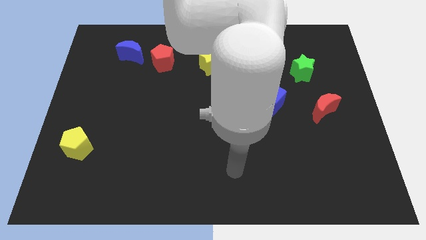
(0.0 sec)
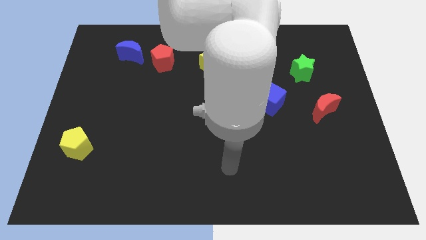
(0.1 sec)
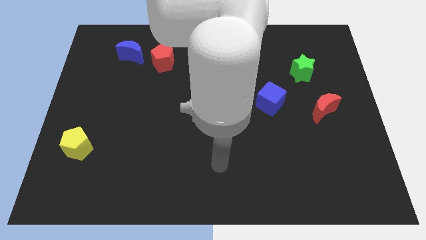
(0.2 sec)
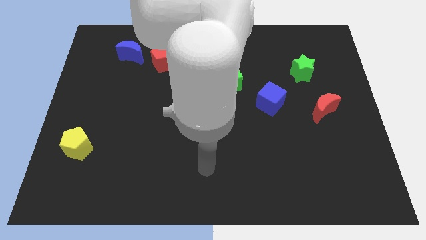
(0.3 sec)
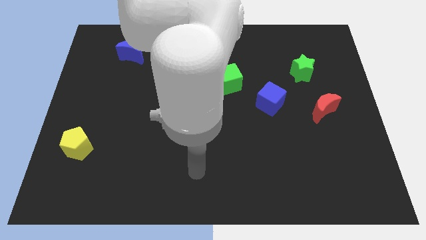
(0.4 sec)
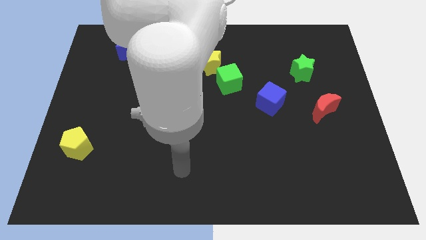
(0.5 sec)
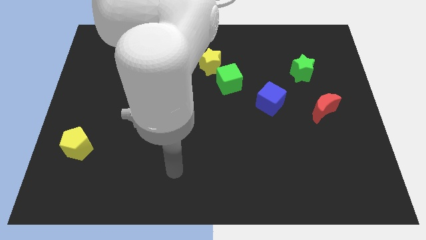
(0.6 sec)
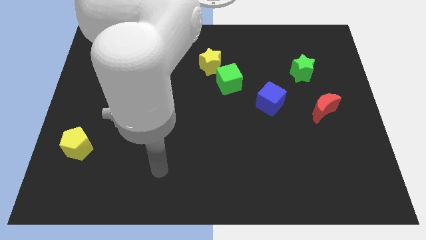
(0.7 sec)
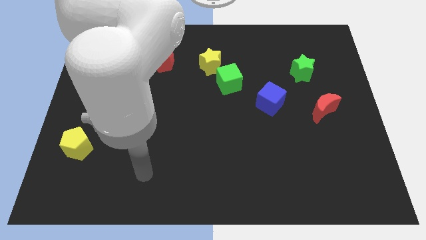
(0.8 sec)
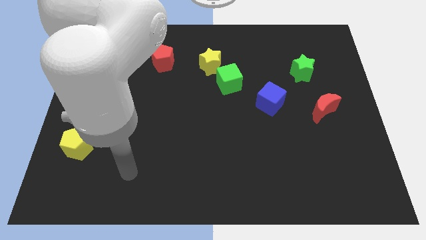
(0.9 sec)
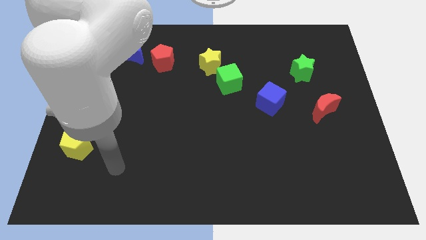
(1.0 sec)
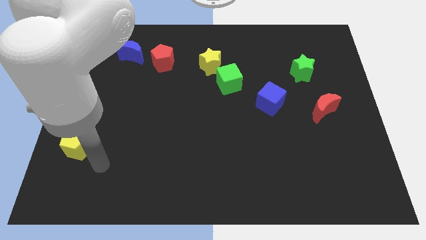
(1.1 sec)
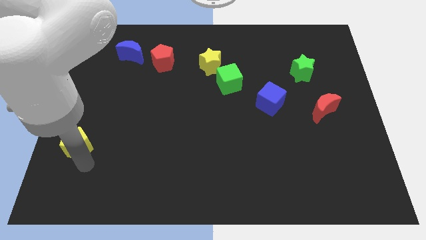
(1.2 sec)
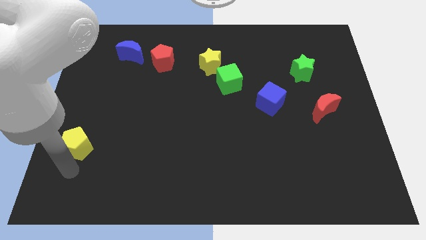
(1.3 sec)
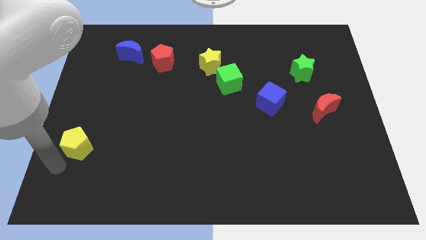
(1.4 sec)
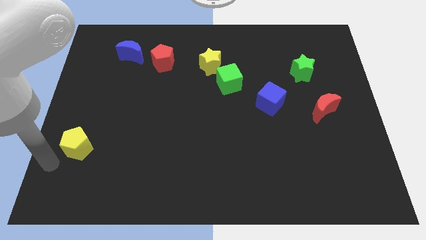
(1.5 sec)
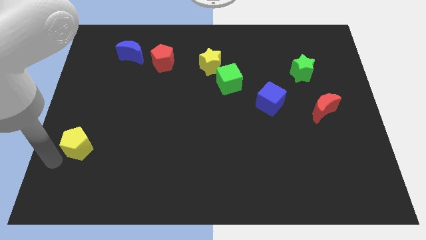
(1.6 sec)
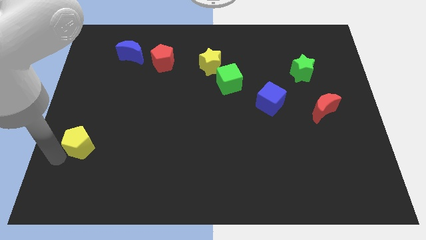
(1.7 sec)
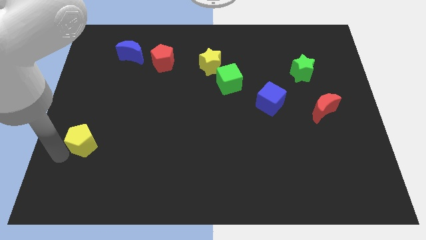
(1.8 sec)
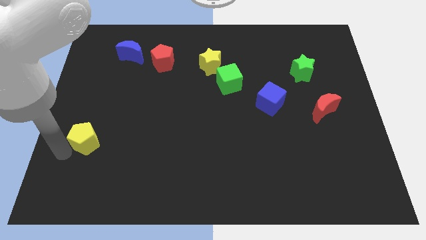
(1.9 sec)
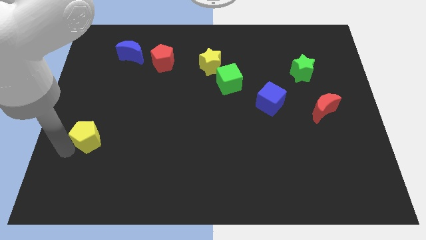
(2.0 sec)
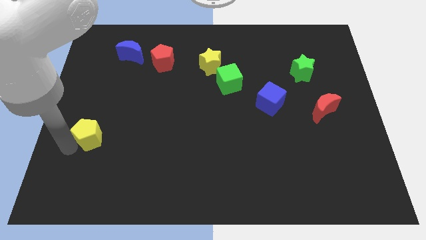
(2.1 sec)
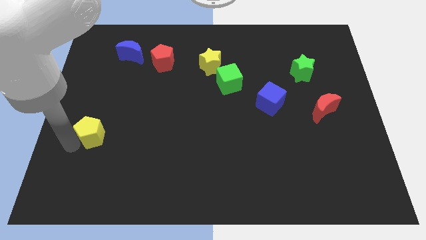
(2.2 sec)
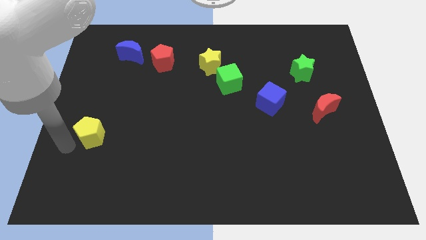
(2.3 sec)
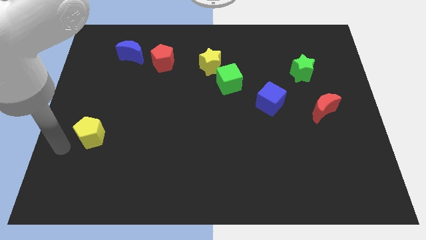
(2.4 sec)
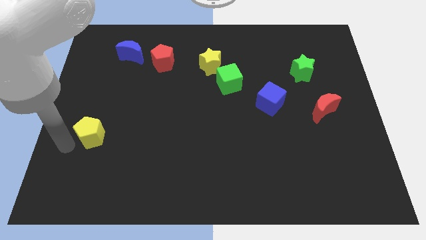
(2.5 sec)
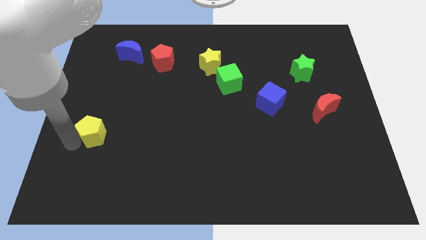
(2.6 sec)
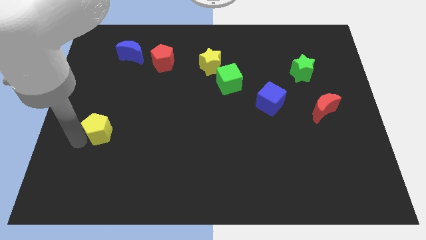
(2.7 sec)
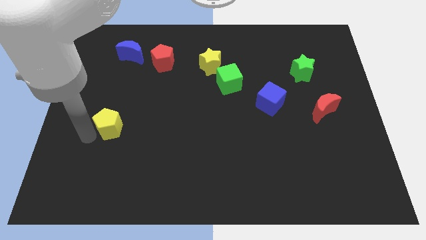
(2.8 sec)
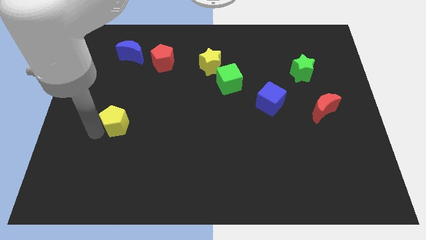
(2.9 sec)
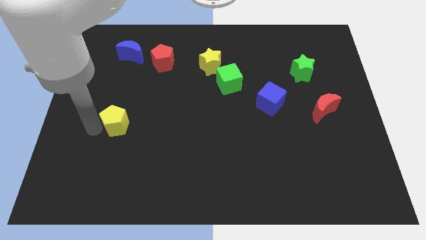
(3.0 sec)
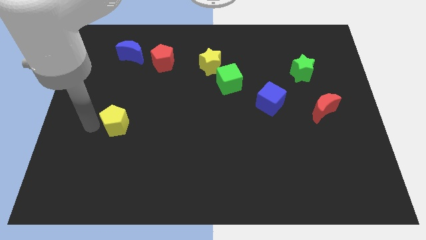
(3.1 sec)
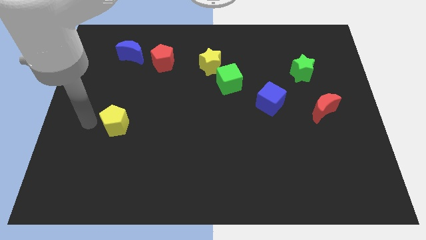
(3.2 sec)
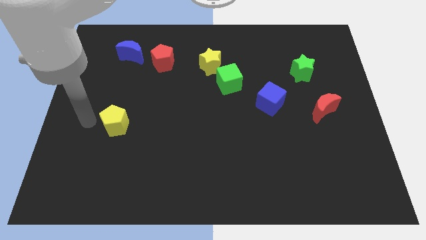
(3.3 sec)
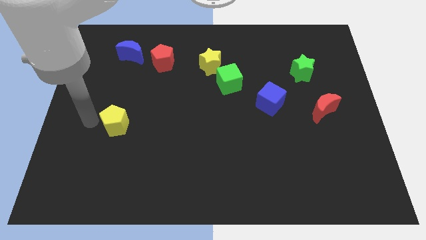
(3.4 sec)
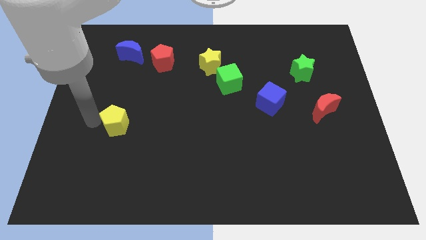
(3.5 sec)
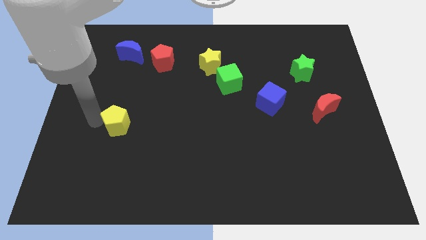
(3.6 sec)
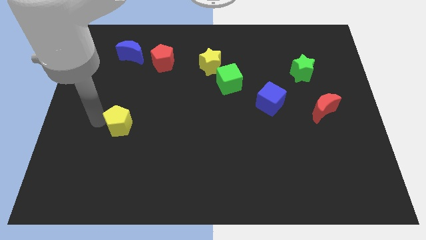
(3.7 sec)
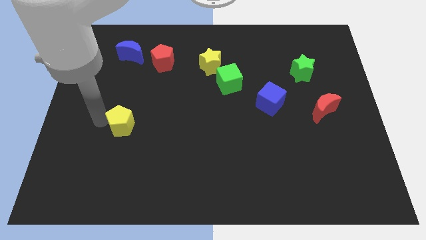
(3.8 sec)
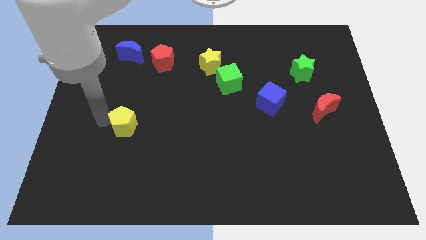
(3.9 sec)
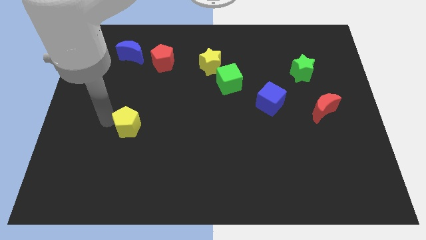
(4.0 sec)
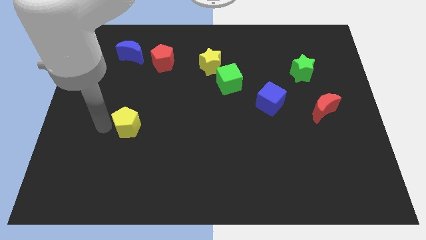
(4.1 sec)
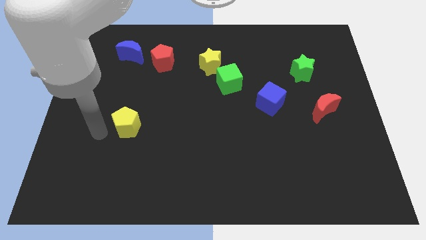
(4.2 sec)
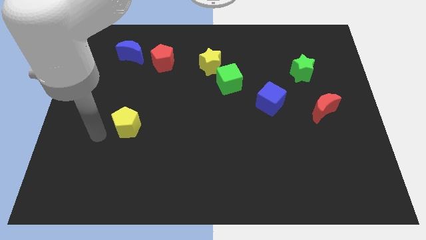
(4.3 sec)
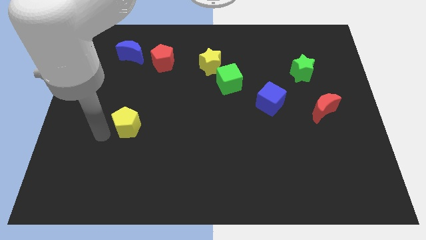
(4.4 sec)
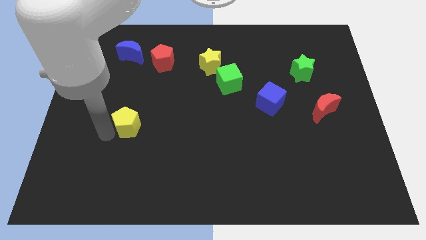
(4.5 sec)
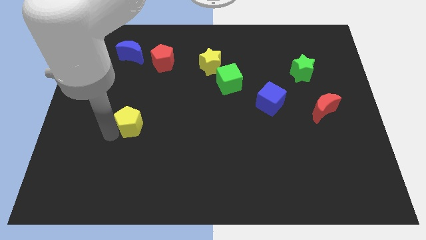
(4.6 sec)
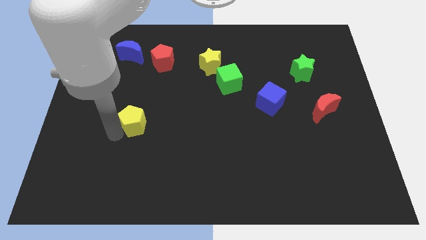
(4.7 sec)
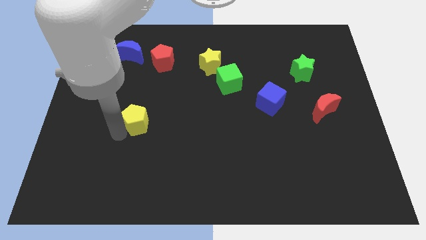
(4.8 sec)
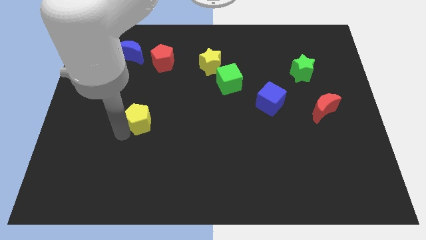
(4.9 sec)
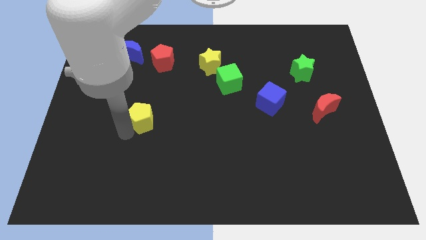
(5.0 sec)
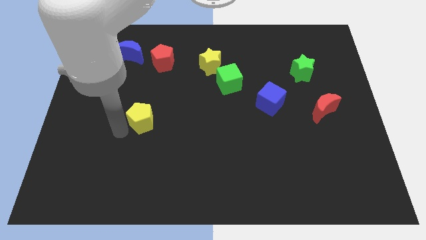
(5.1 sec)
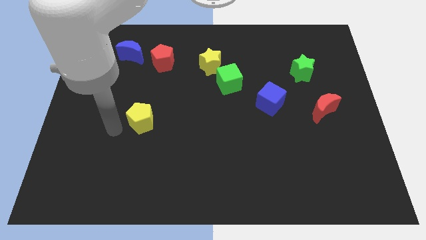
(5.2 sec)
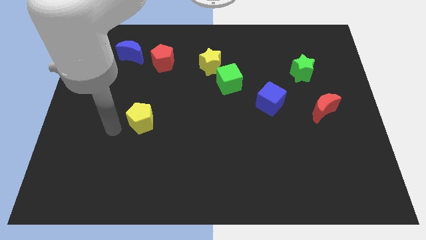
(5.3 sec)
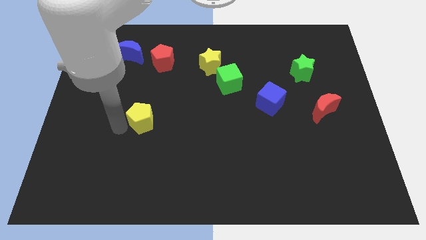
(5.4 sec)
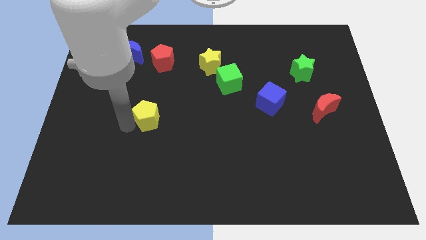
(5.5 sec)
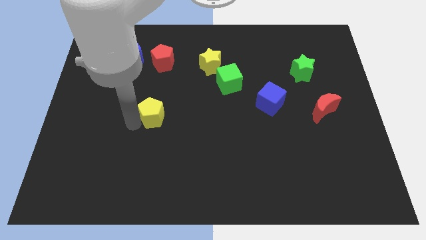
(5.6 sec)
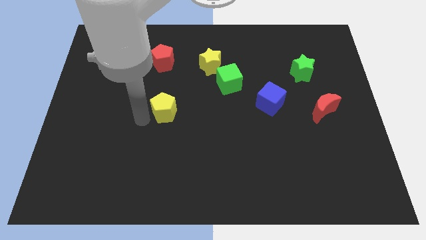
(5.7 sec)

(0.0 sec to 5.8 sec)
slide the yellow pentagon to the center

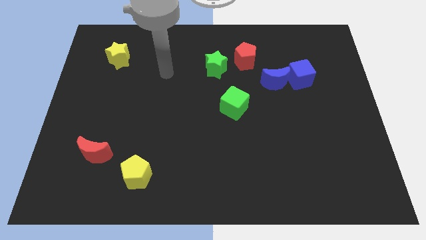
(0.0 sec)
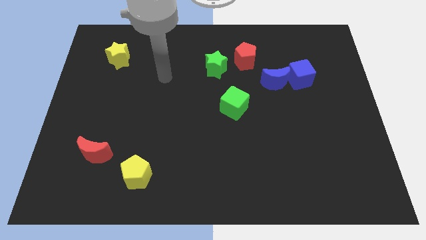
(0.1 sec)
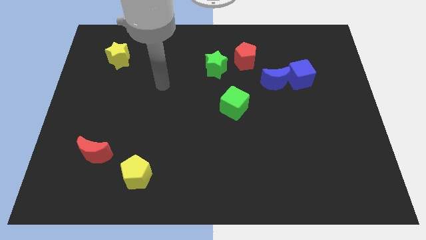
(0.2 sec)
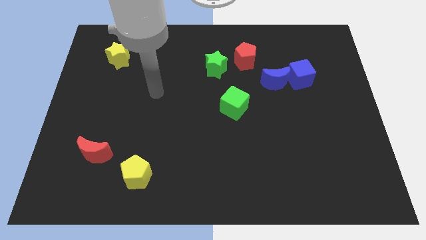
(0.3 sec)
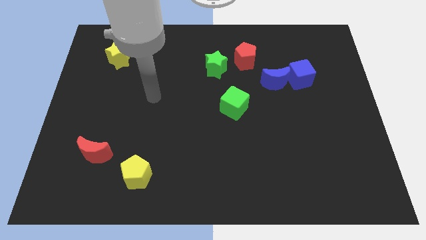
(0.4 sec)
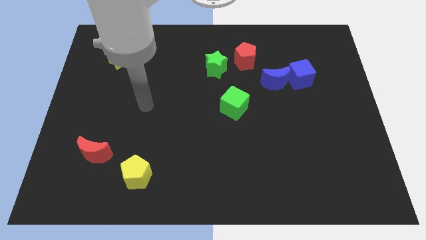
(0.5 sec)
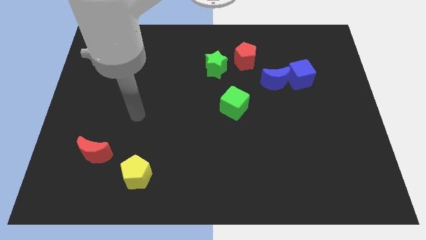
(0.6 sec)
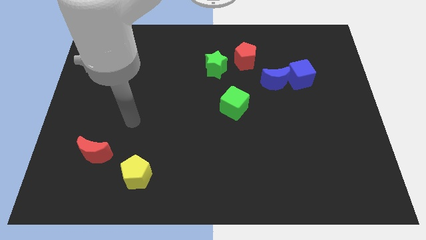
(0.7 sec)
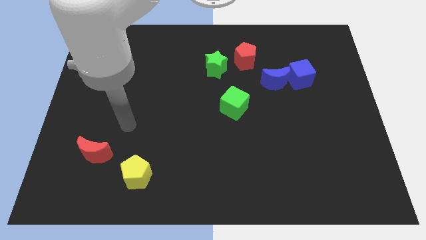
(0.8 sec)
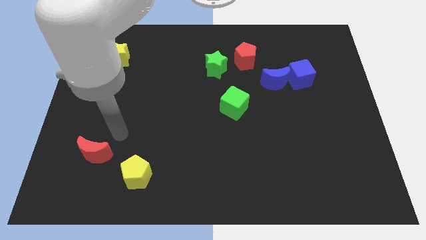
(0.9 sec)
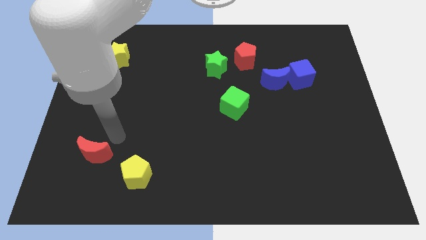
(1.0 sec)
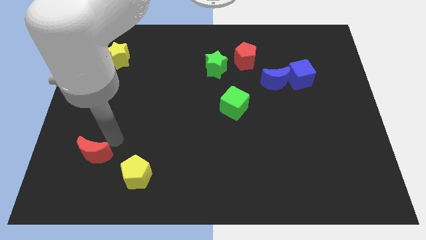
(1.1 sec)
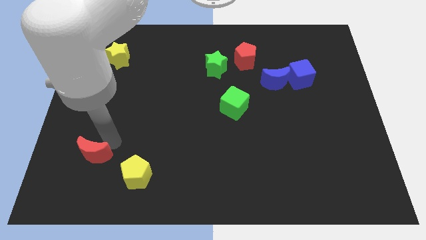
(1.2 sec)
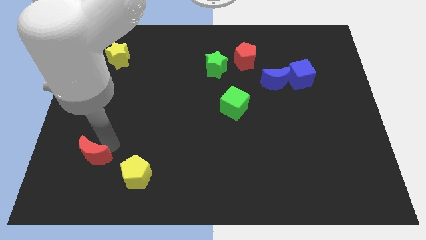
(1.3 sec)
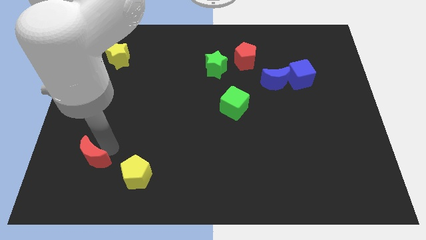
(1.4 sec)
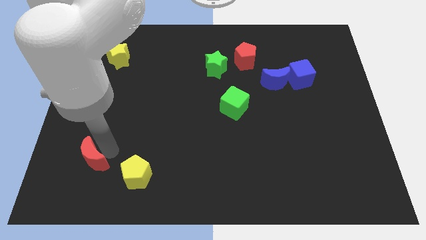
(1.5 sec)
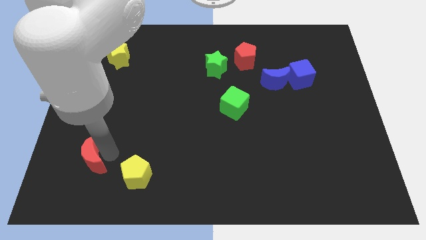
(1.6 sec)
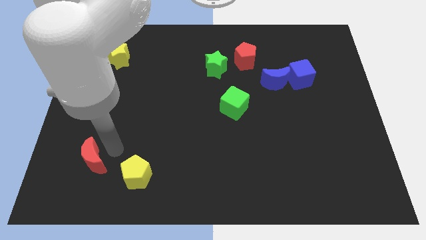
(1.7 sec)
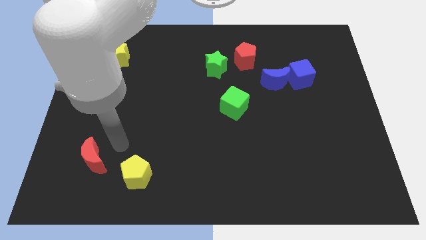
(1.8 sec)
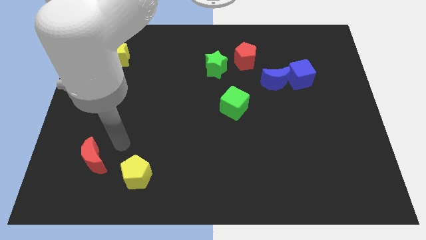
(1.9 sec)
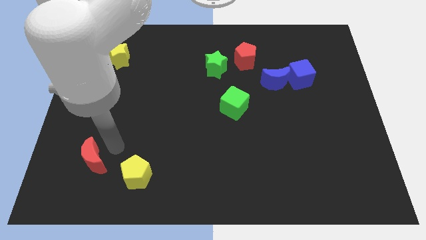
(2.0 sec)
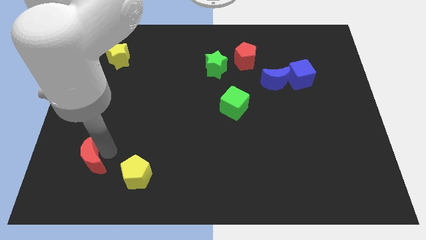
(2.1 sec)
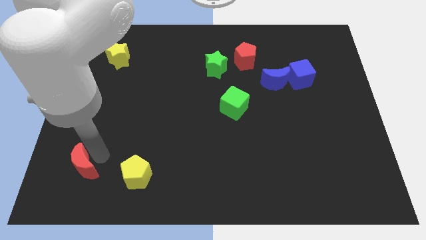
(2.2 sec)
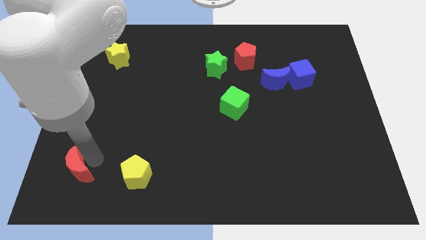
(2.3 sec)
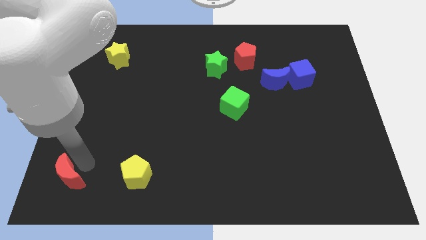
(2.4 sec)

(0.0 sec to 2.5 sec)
move the red moon to the bottom left corner
